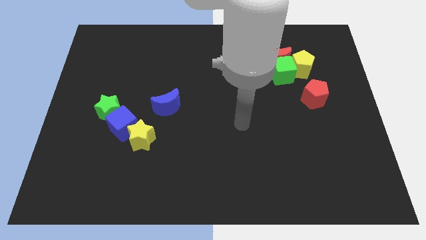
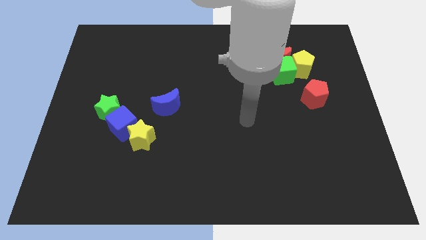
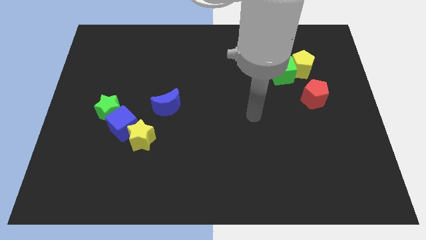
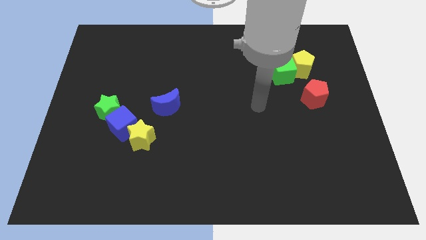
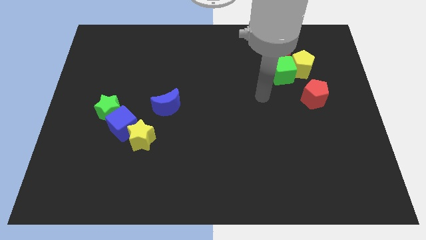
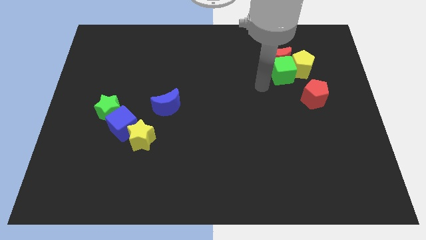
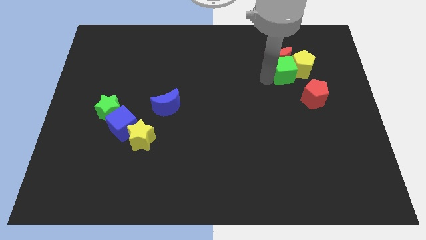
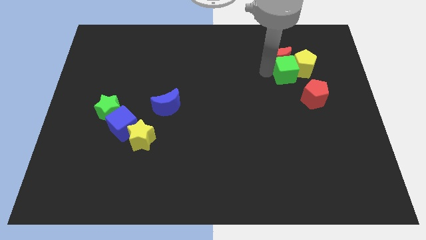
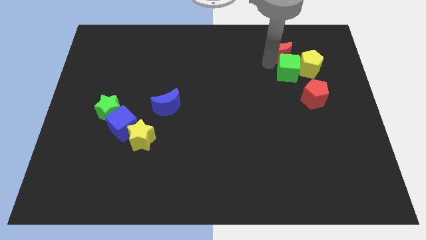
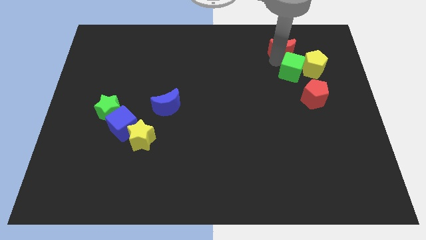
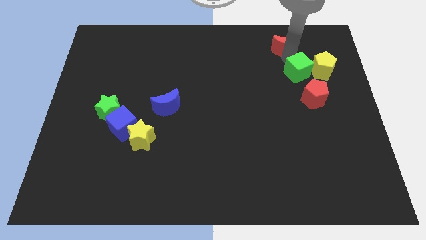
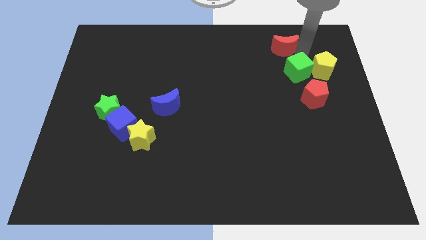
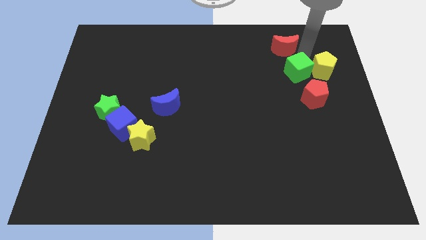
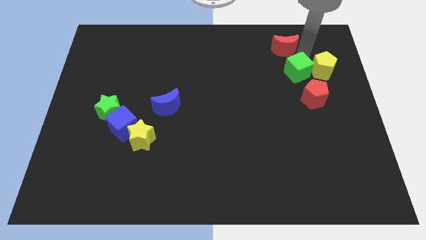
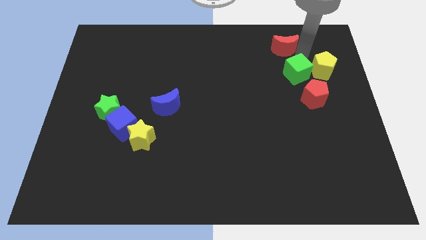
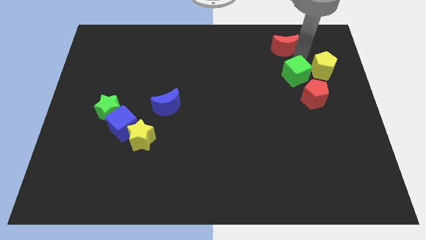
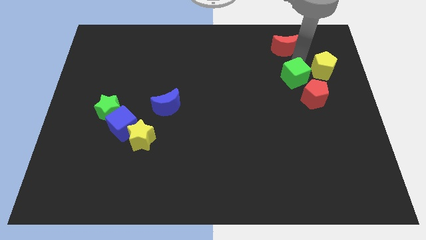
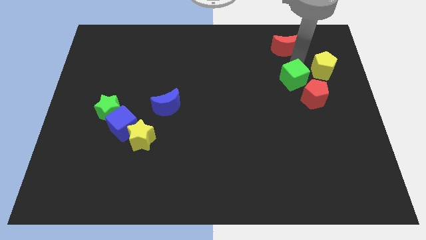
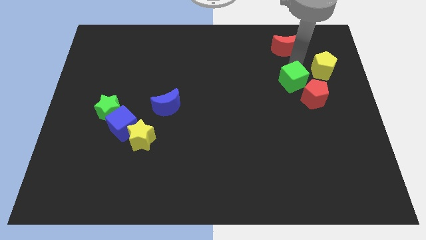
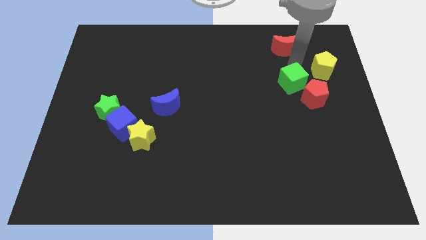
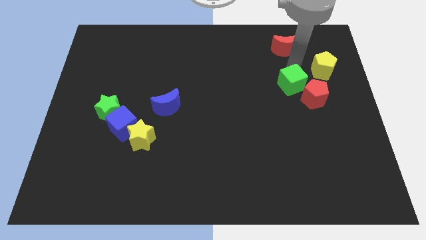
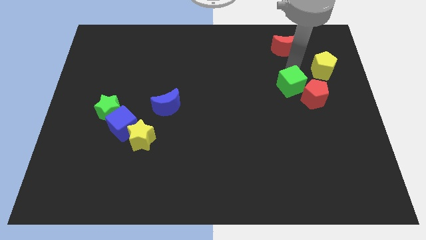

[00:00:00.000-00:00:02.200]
separate the green cube from the red moon and yellow pentagon

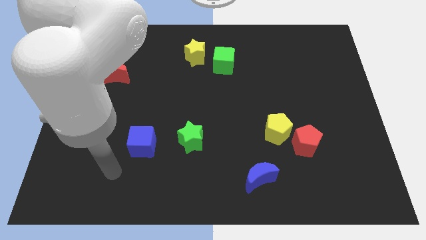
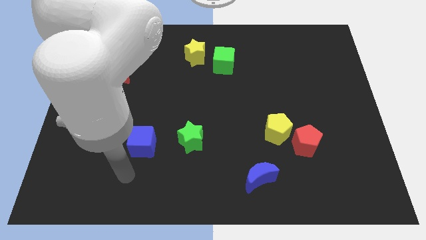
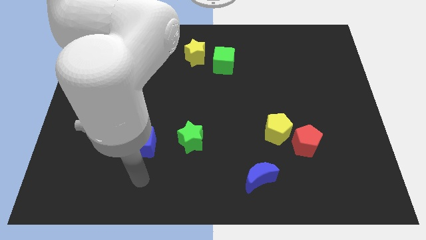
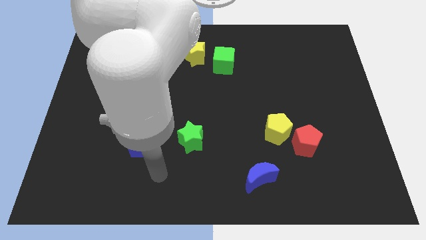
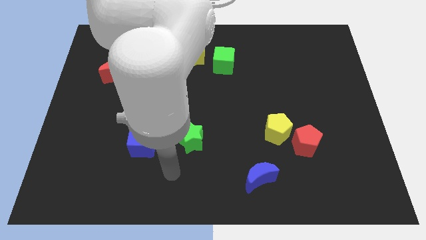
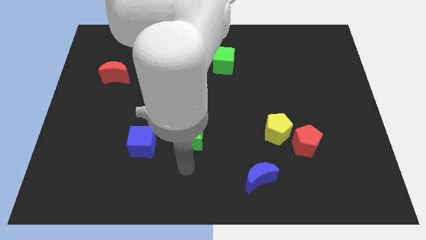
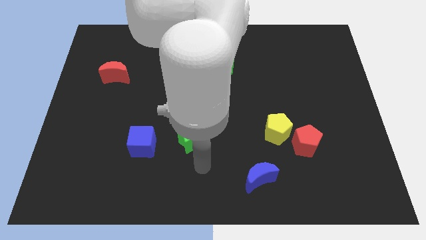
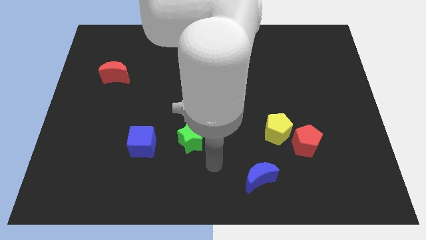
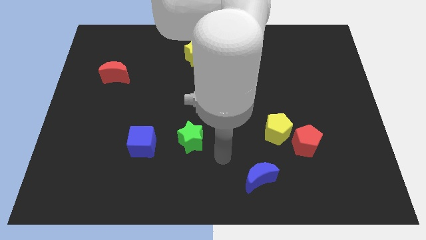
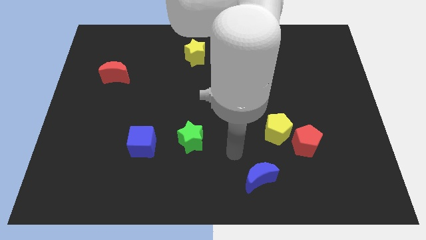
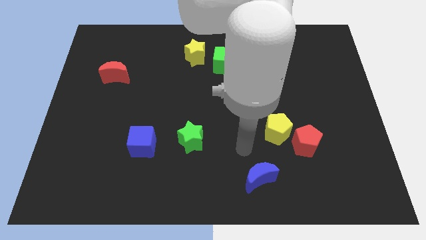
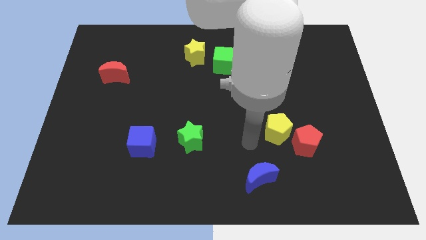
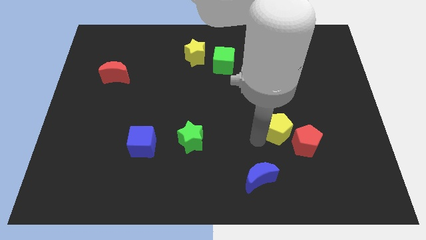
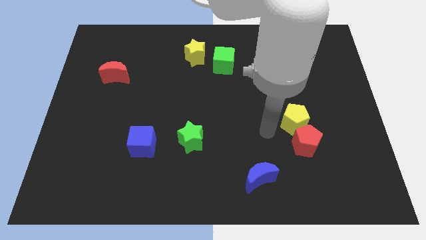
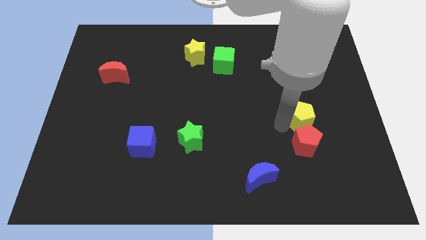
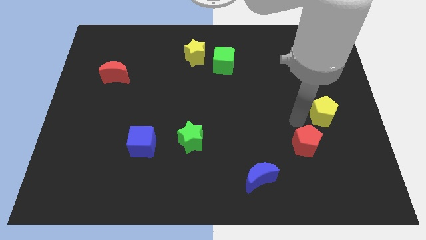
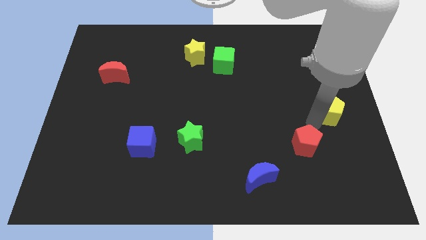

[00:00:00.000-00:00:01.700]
pull the red pentagon apart from the yellow pentagon

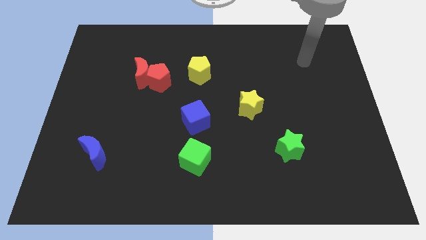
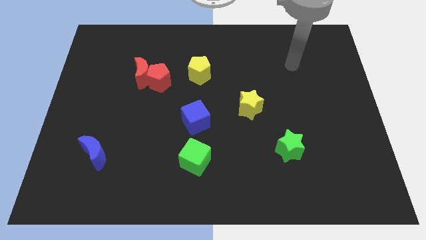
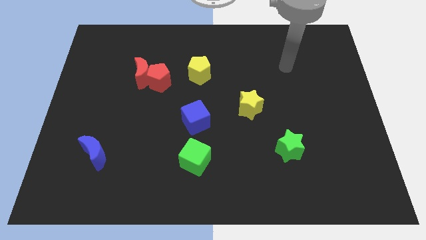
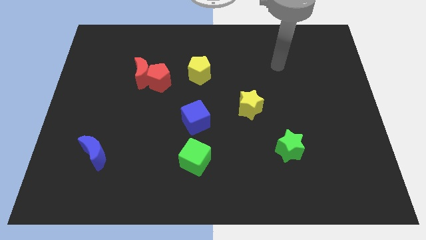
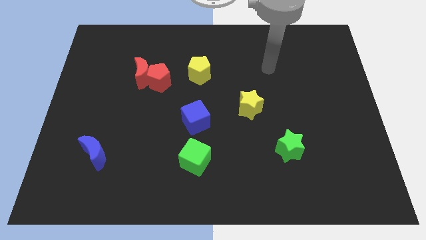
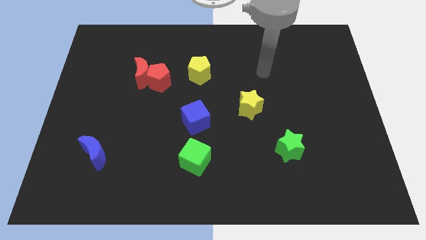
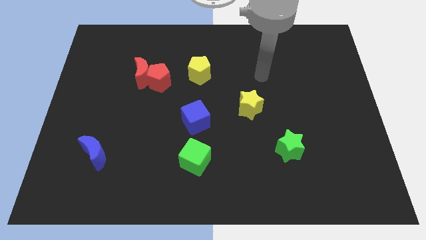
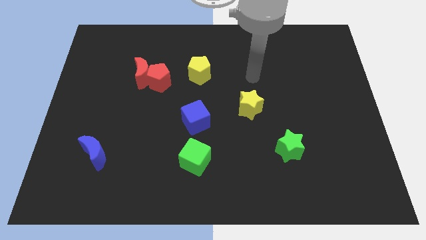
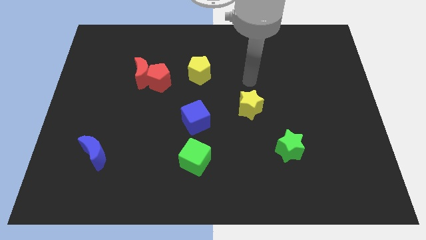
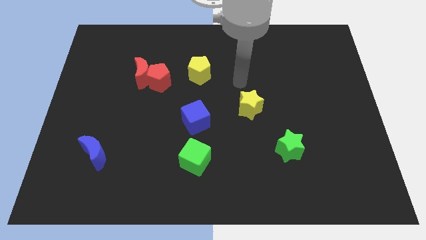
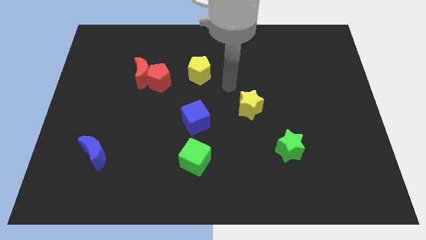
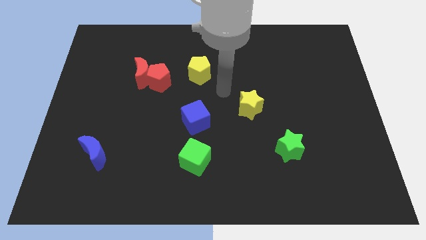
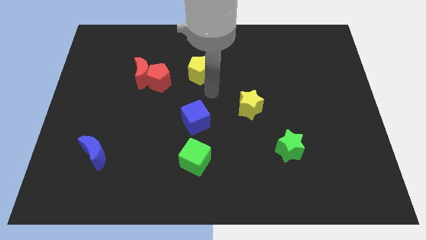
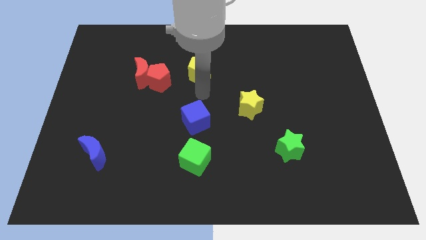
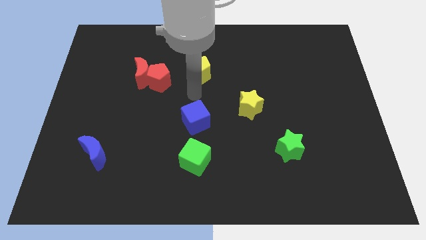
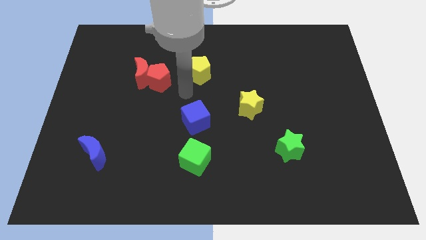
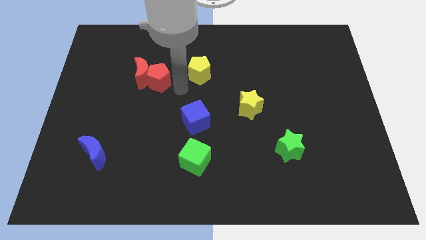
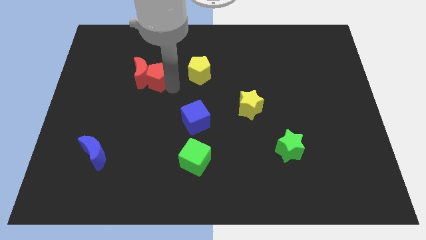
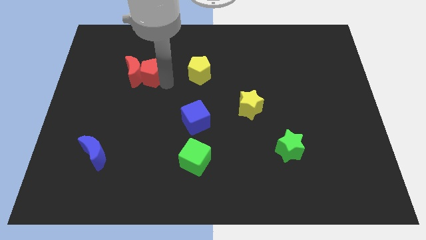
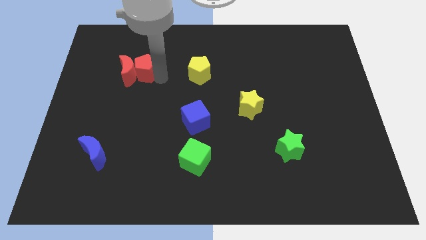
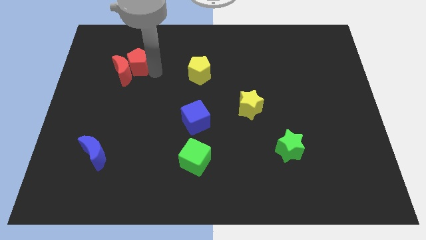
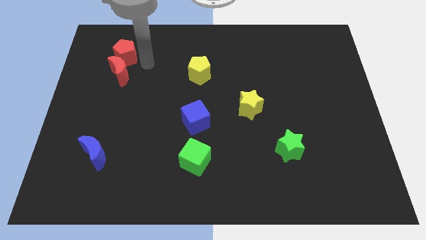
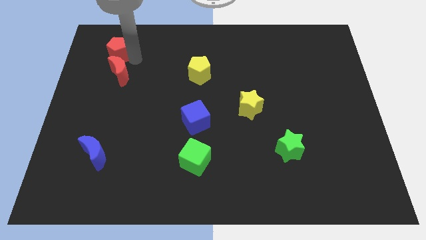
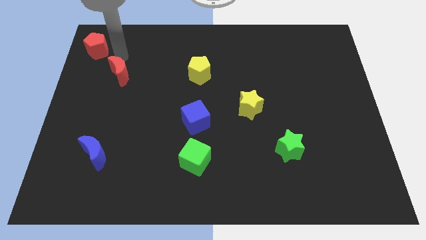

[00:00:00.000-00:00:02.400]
pull the red moon apart from the red pentagon

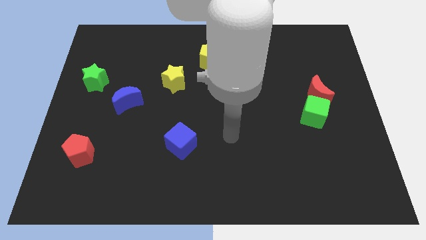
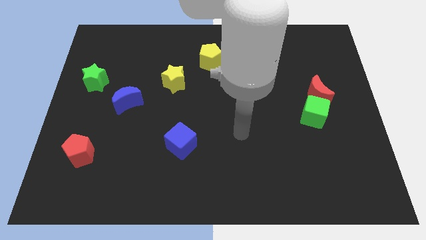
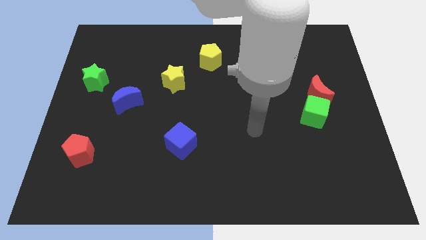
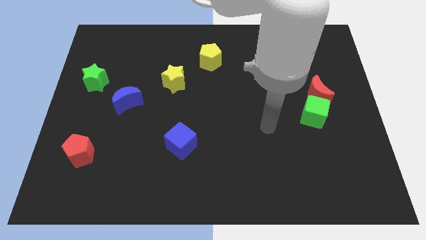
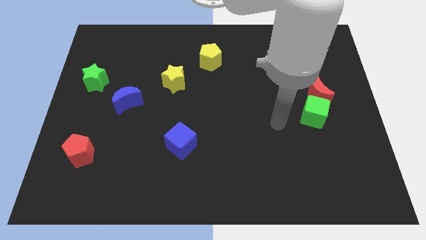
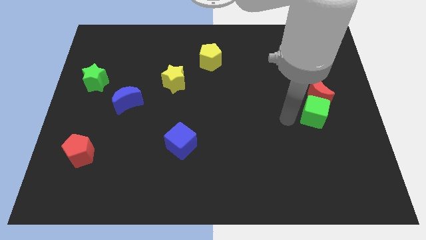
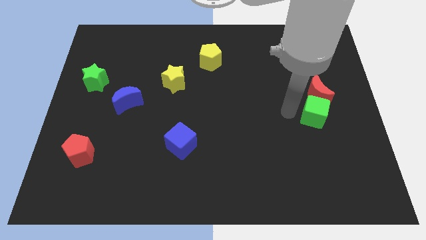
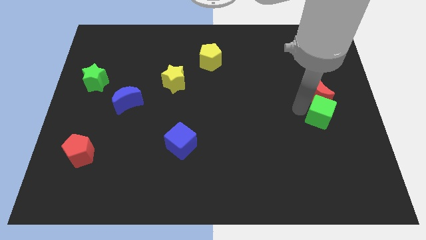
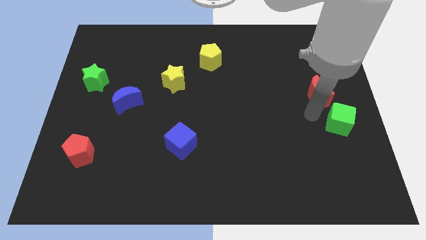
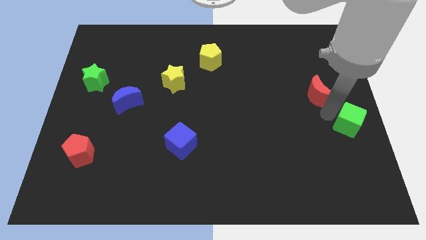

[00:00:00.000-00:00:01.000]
pull the red moon apart from the green cube

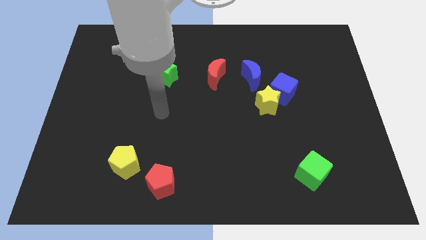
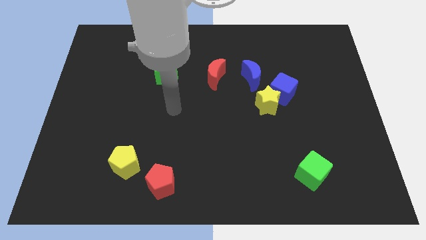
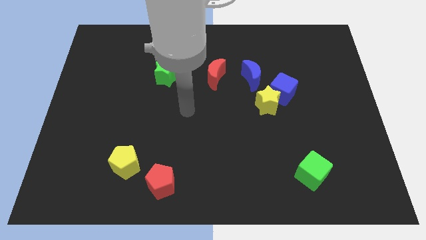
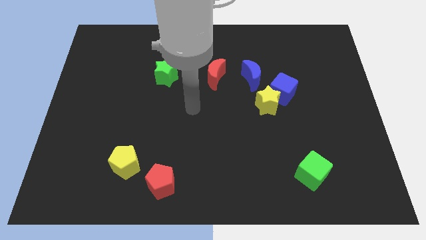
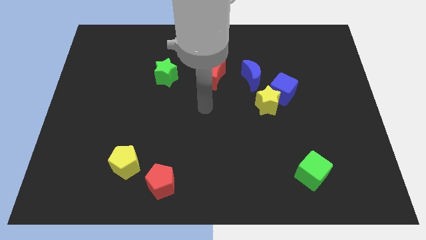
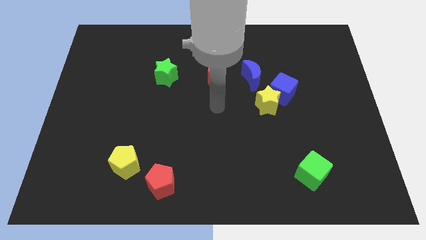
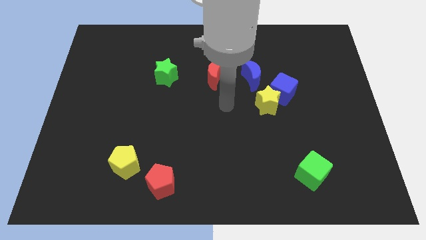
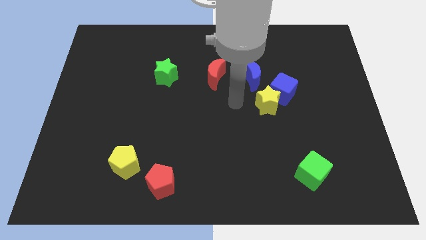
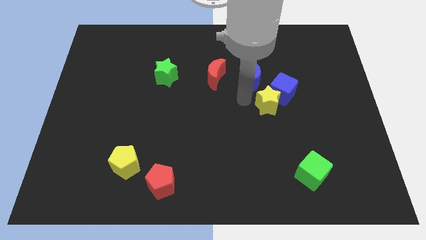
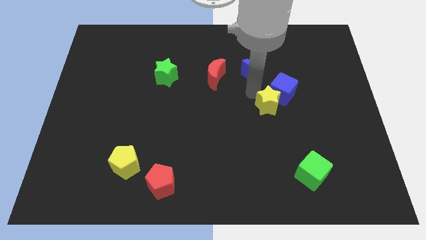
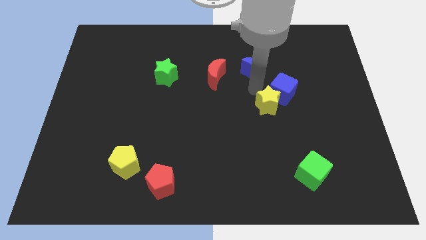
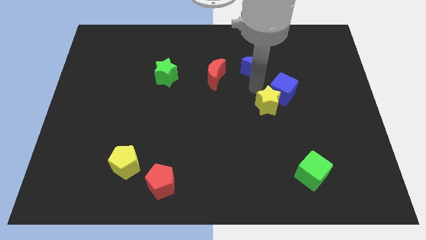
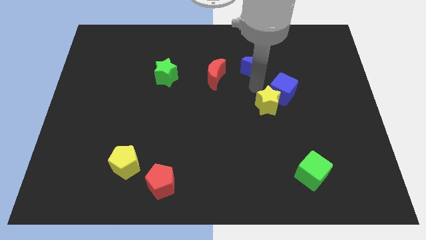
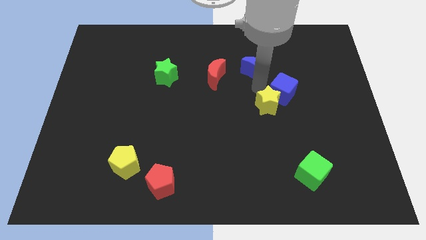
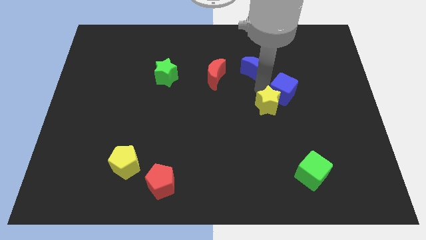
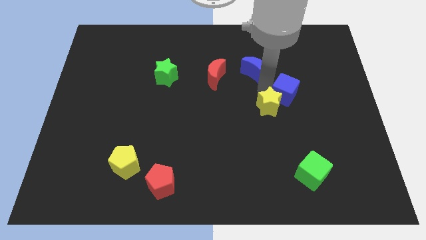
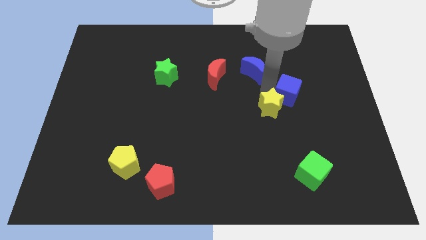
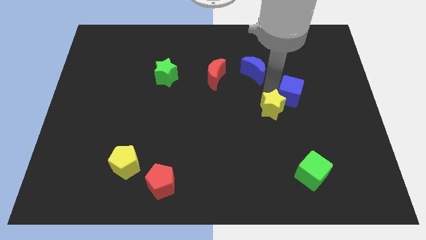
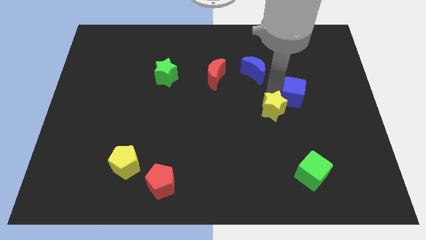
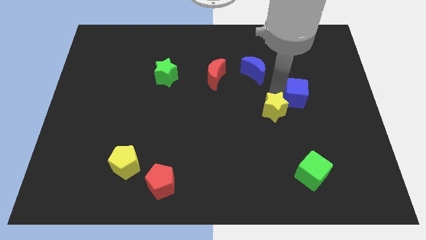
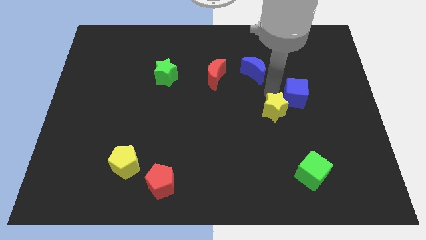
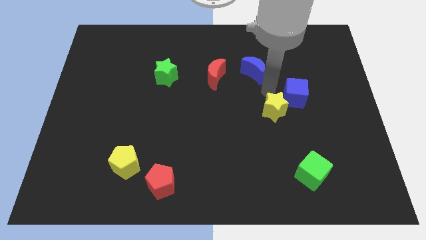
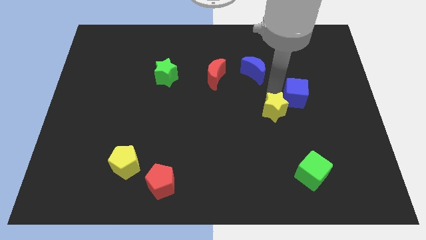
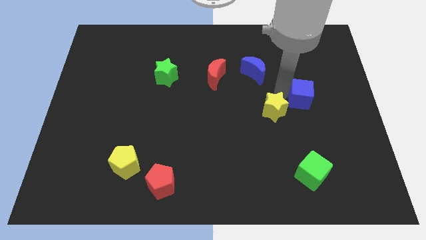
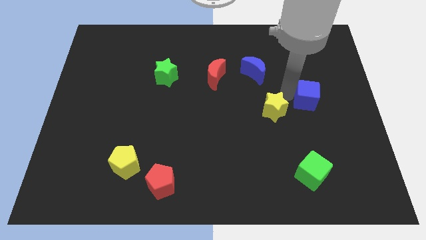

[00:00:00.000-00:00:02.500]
separate the blue cube from the yellow star and blue moon
